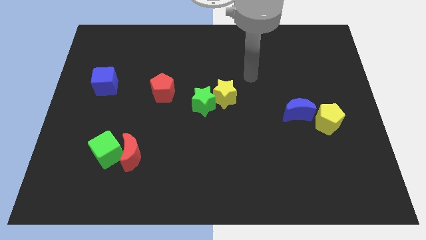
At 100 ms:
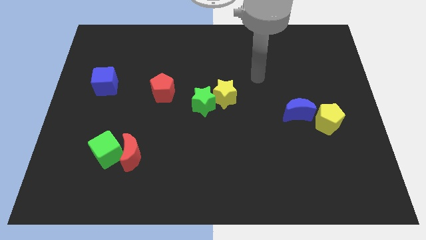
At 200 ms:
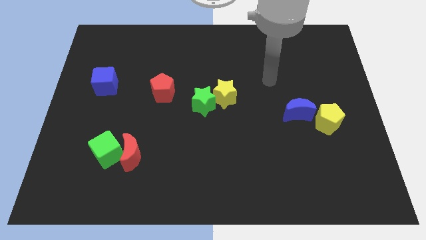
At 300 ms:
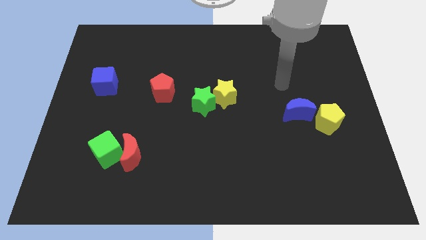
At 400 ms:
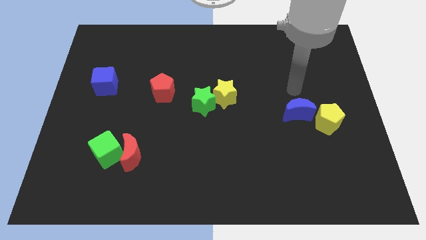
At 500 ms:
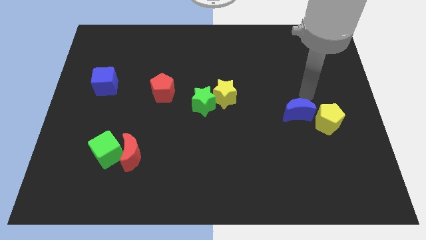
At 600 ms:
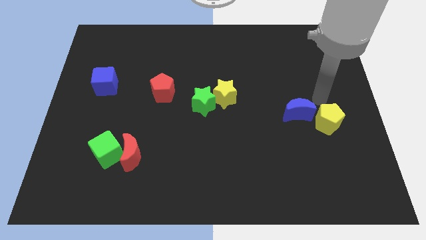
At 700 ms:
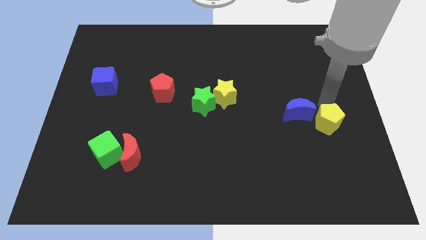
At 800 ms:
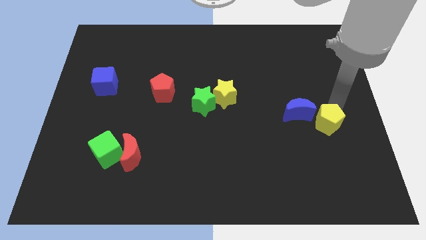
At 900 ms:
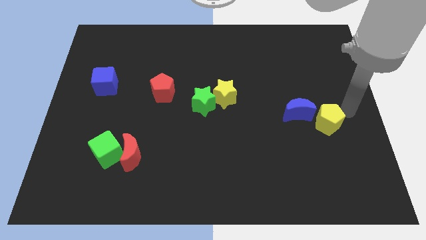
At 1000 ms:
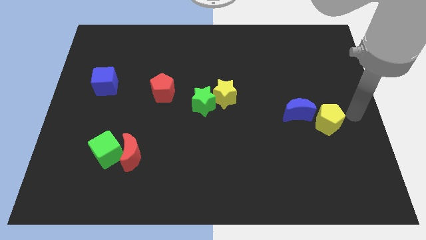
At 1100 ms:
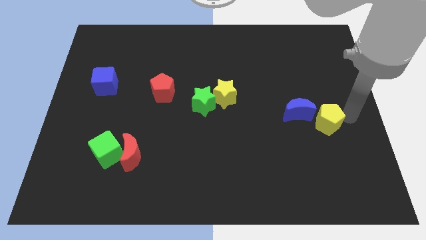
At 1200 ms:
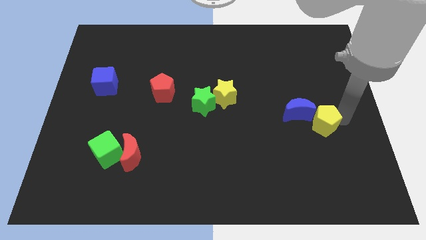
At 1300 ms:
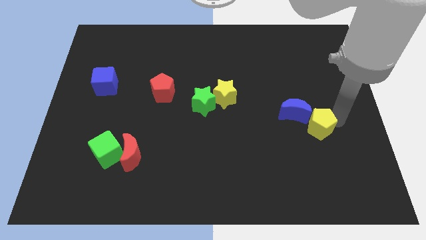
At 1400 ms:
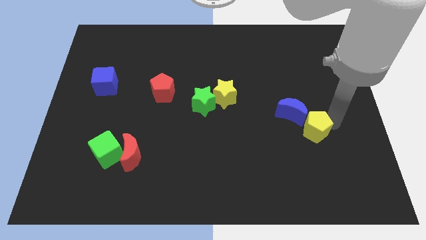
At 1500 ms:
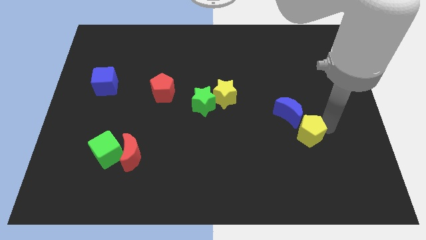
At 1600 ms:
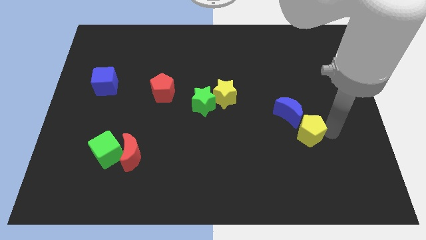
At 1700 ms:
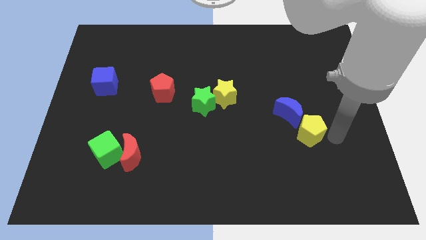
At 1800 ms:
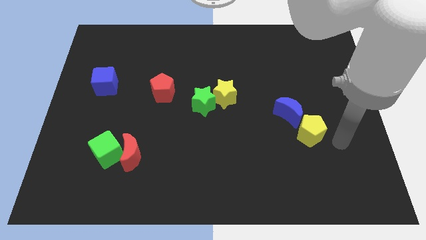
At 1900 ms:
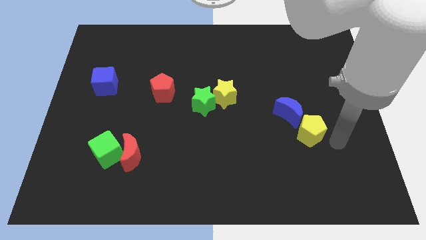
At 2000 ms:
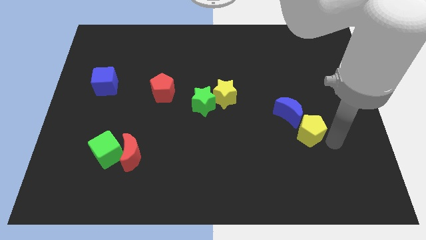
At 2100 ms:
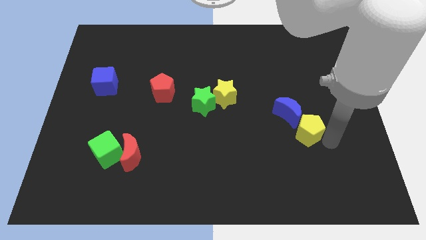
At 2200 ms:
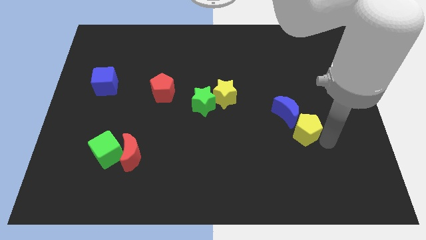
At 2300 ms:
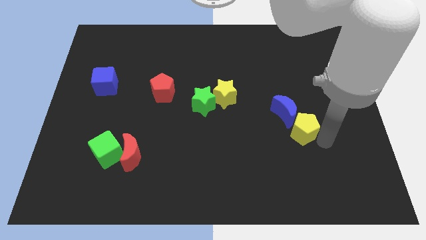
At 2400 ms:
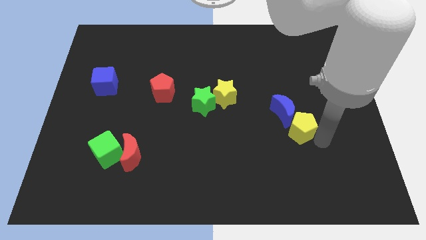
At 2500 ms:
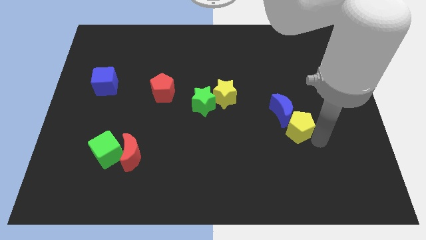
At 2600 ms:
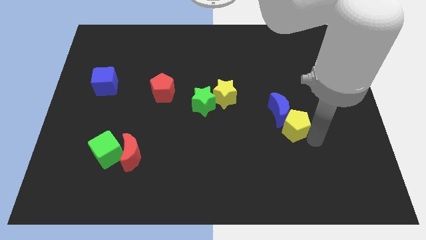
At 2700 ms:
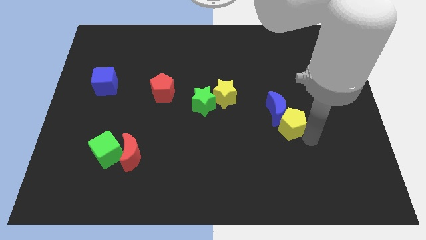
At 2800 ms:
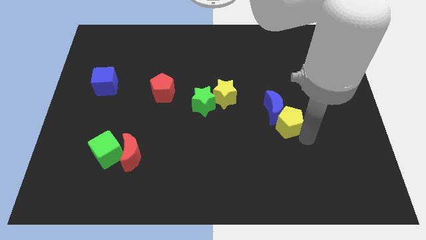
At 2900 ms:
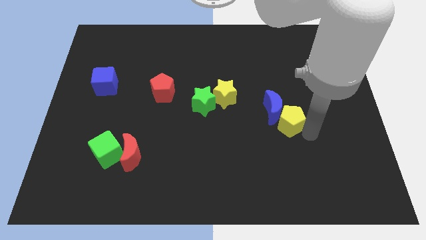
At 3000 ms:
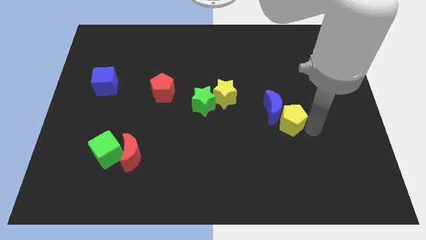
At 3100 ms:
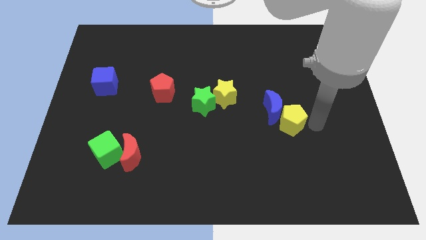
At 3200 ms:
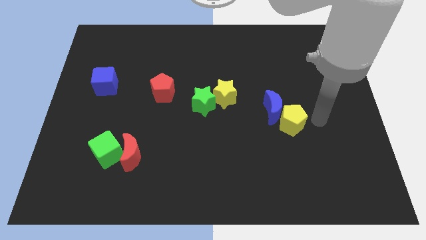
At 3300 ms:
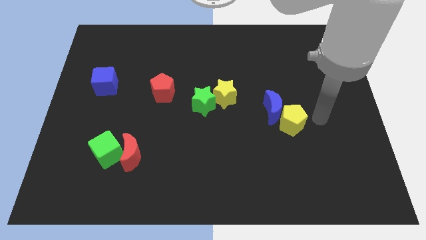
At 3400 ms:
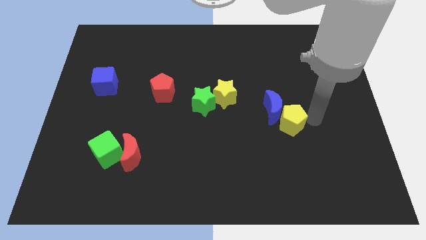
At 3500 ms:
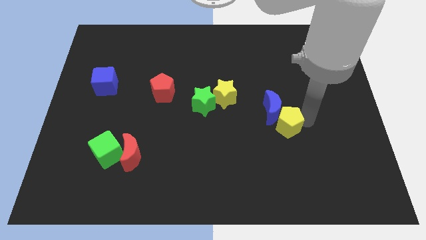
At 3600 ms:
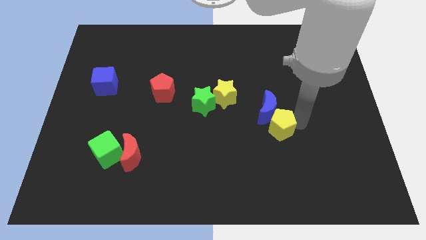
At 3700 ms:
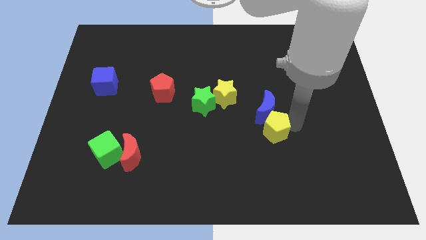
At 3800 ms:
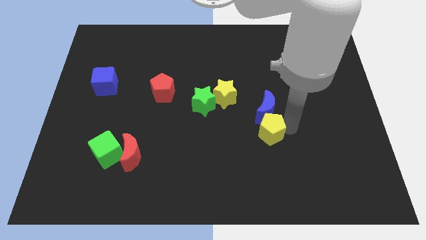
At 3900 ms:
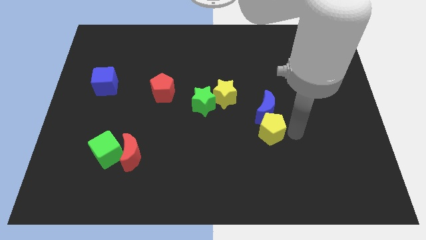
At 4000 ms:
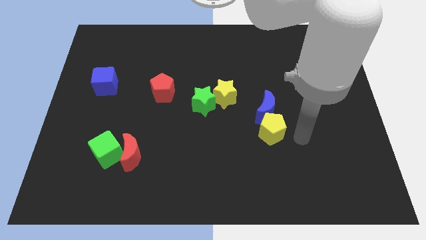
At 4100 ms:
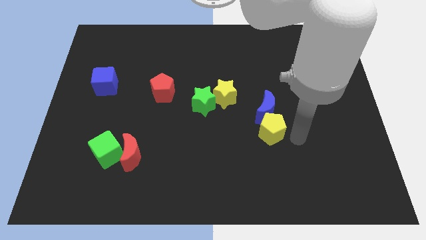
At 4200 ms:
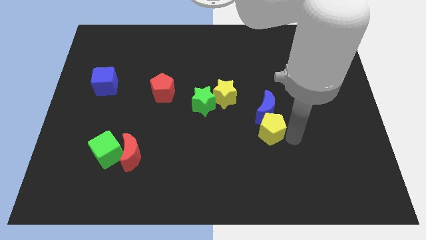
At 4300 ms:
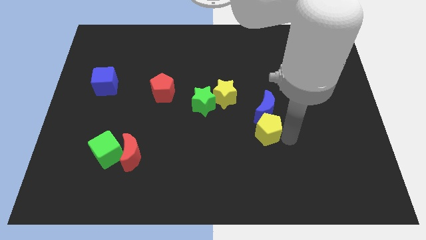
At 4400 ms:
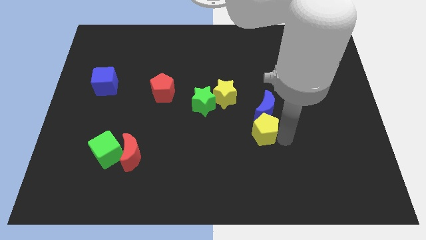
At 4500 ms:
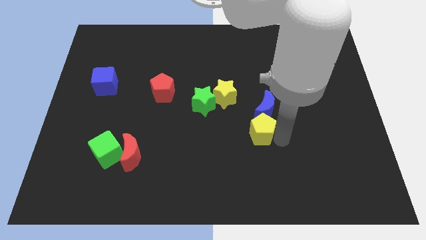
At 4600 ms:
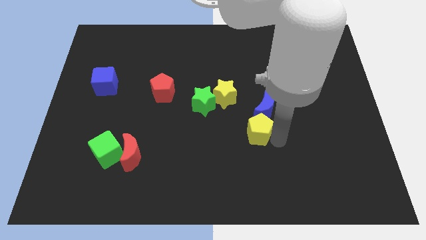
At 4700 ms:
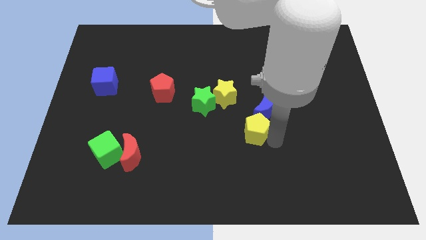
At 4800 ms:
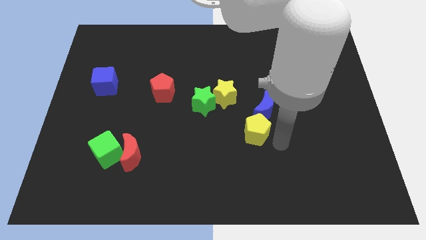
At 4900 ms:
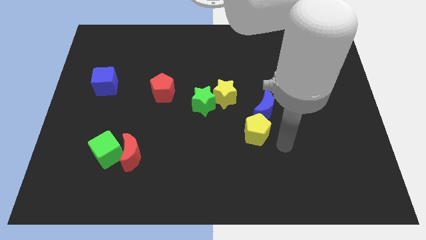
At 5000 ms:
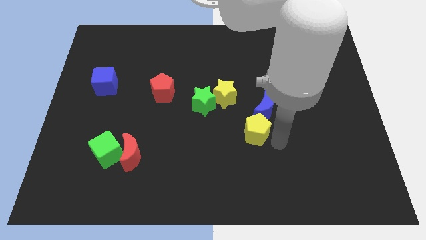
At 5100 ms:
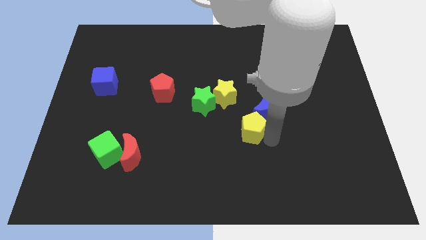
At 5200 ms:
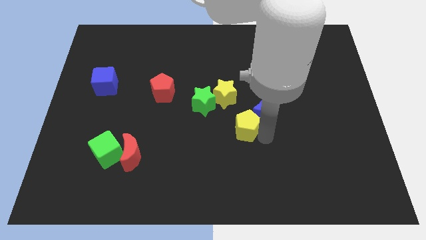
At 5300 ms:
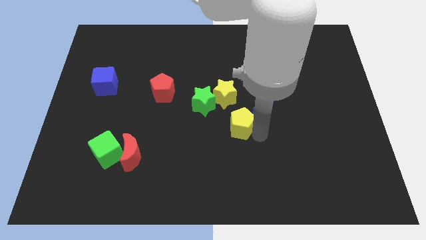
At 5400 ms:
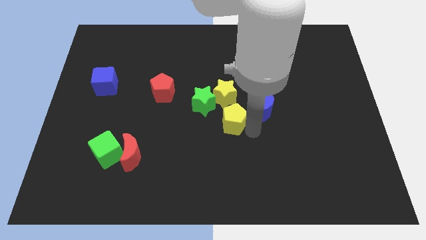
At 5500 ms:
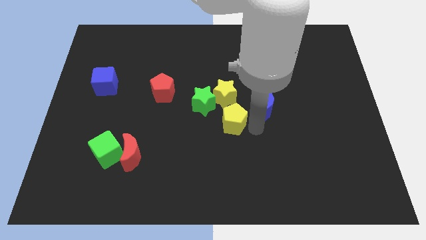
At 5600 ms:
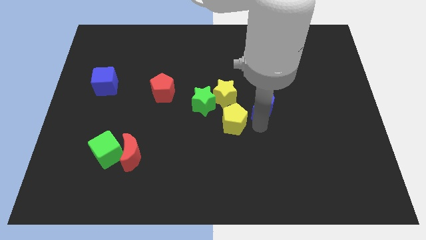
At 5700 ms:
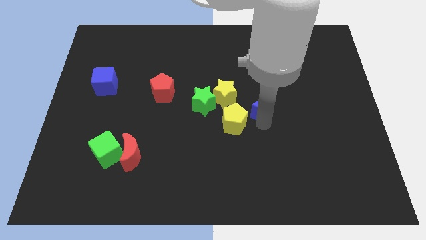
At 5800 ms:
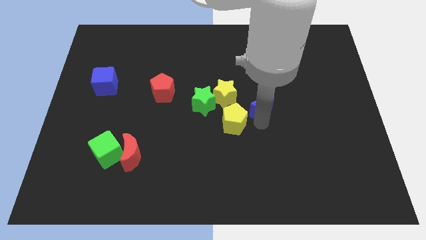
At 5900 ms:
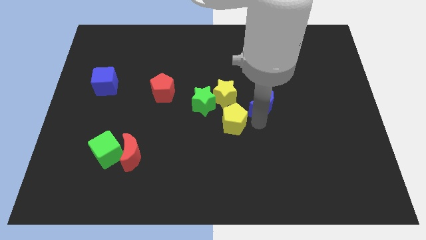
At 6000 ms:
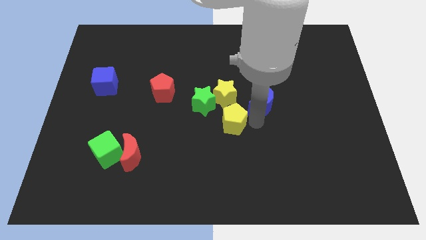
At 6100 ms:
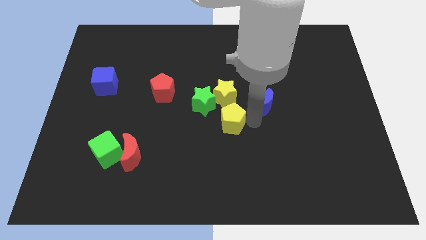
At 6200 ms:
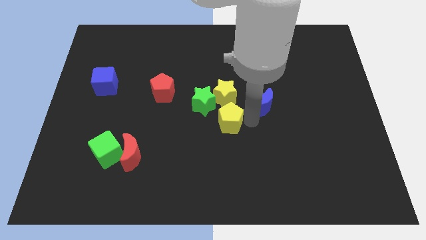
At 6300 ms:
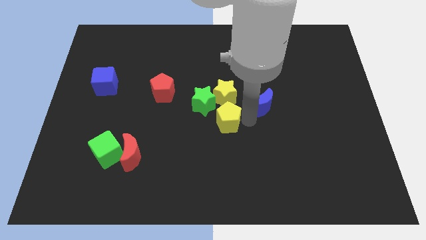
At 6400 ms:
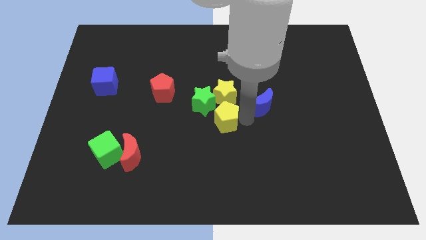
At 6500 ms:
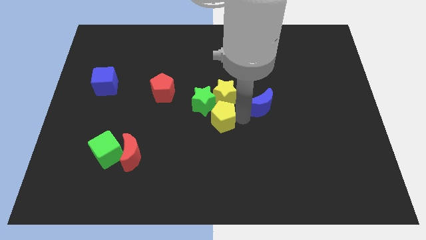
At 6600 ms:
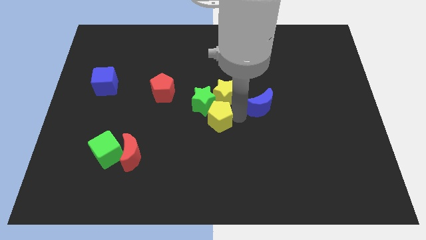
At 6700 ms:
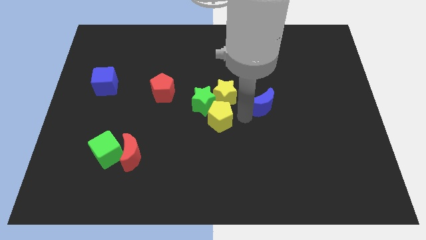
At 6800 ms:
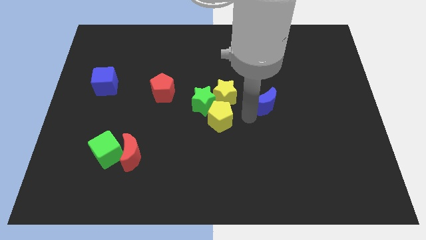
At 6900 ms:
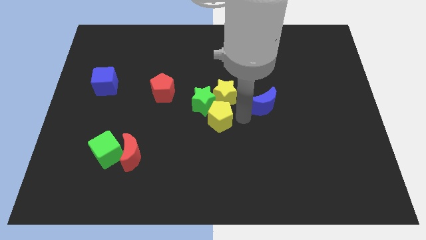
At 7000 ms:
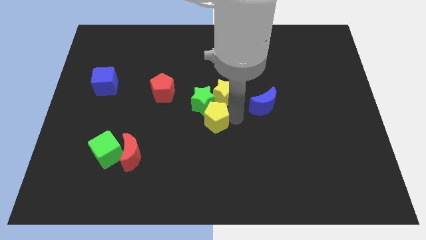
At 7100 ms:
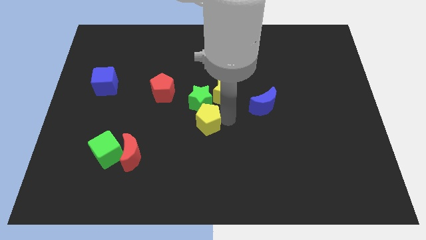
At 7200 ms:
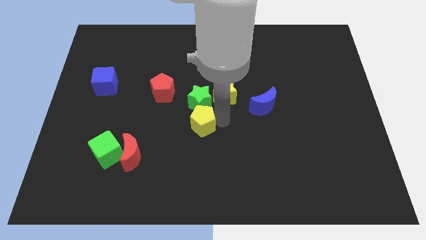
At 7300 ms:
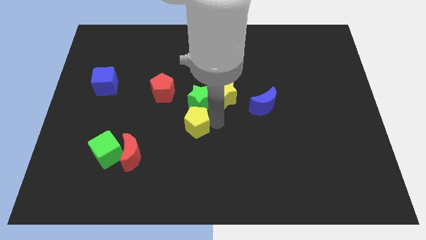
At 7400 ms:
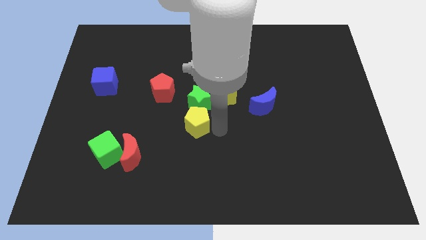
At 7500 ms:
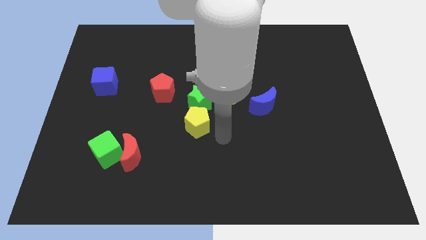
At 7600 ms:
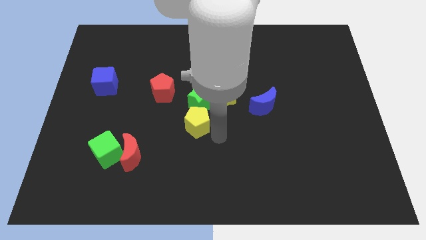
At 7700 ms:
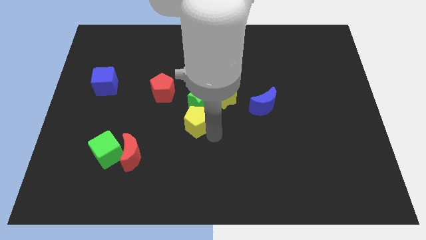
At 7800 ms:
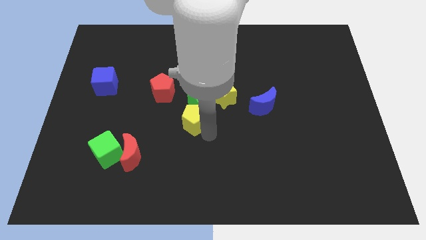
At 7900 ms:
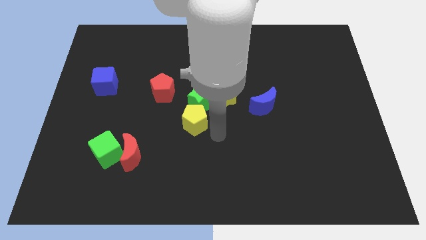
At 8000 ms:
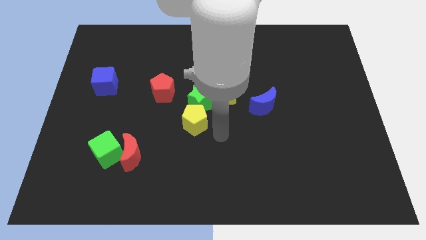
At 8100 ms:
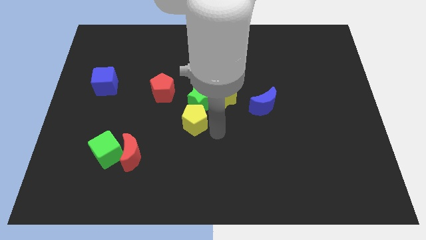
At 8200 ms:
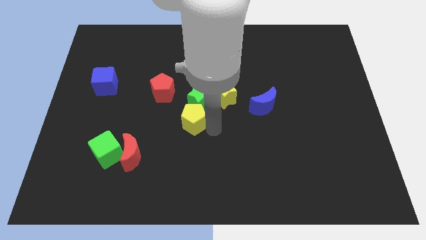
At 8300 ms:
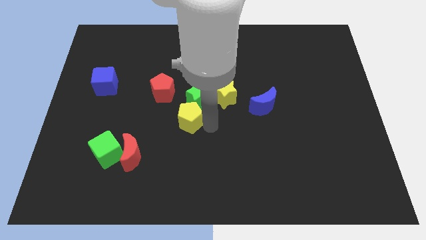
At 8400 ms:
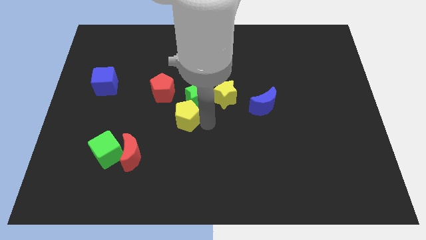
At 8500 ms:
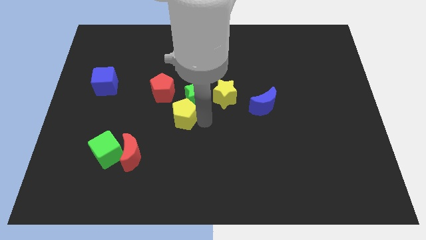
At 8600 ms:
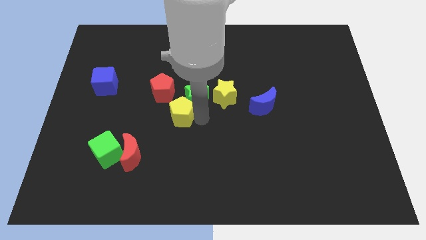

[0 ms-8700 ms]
push the yellow pentagon left of the green star
